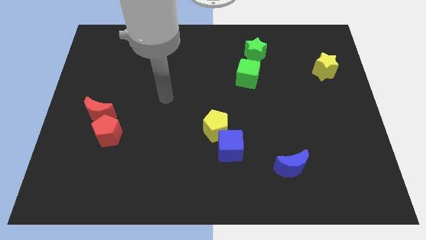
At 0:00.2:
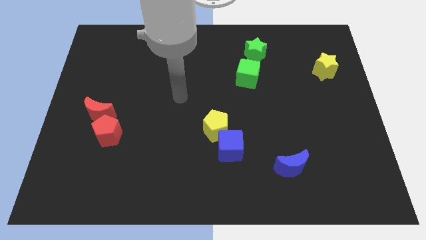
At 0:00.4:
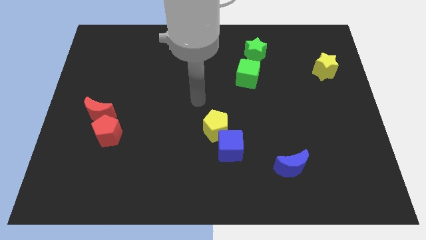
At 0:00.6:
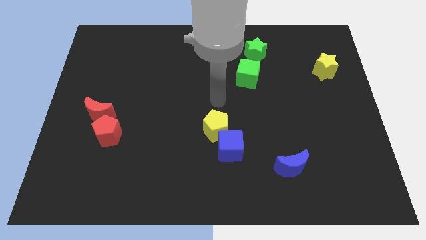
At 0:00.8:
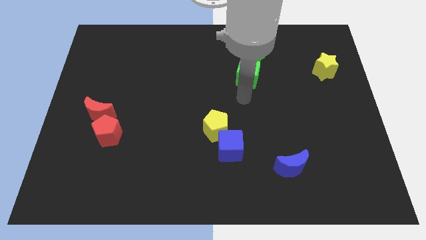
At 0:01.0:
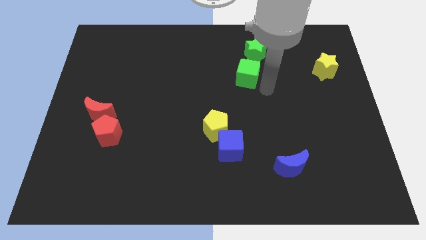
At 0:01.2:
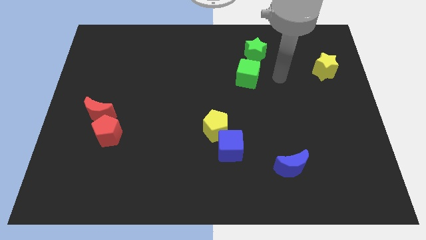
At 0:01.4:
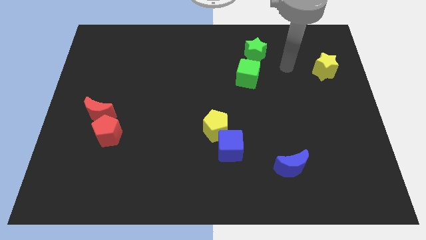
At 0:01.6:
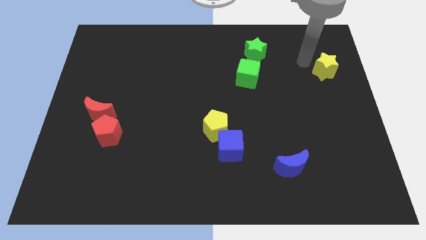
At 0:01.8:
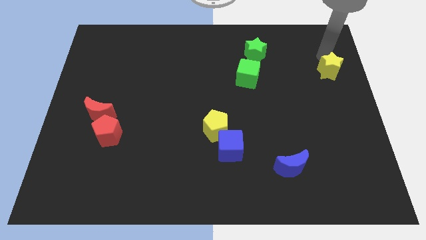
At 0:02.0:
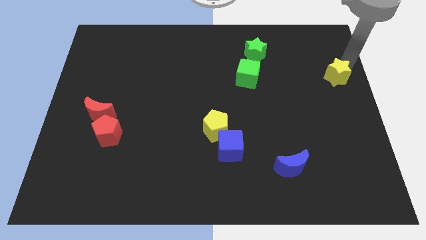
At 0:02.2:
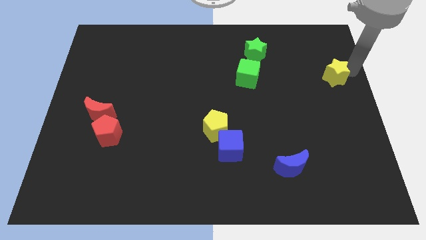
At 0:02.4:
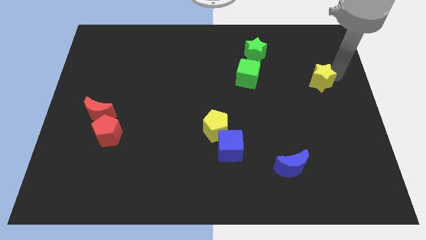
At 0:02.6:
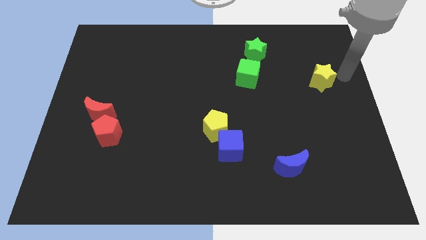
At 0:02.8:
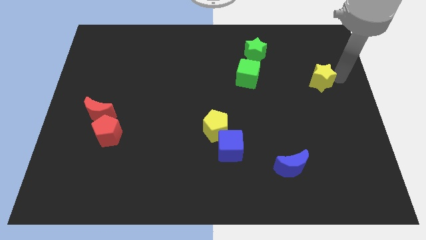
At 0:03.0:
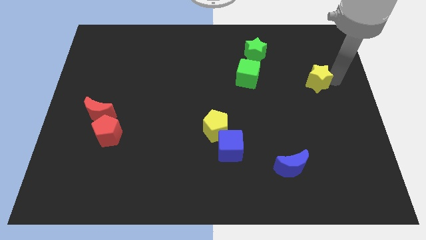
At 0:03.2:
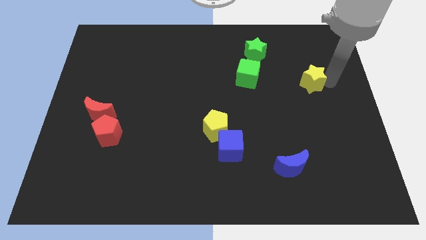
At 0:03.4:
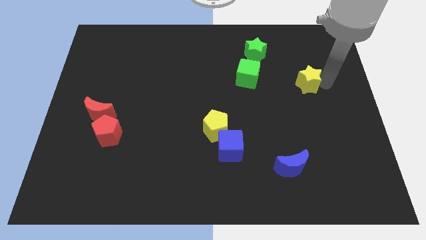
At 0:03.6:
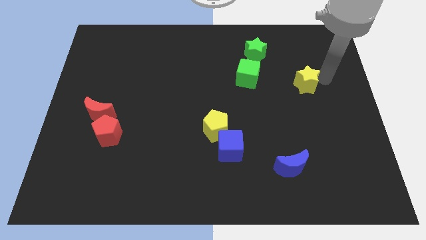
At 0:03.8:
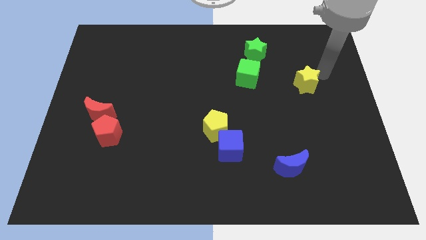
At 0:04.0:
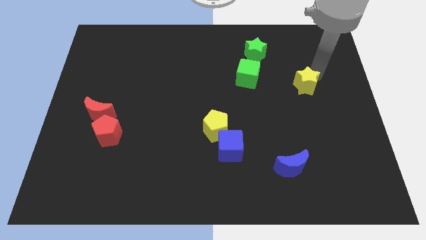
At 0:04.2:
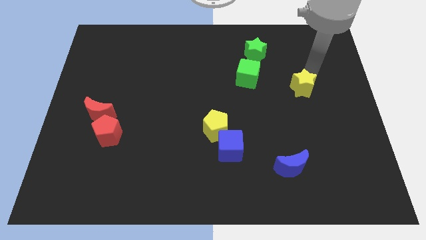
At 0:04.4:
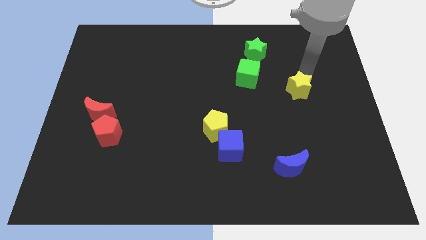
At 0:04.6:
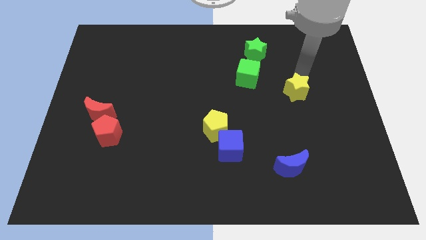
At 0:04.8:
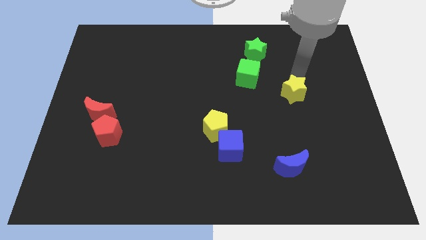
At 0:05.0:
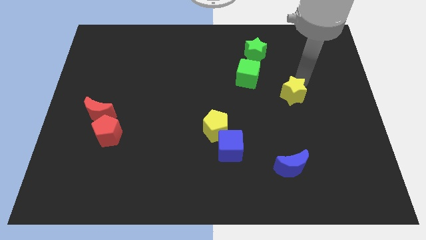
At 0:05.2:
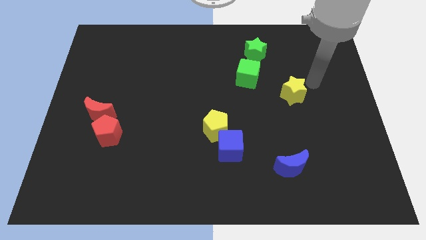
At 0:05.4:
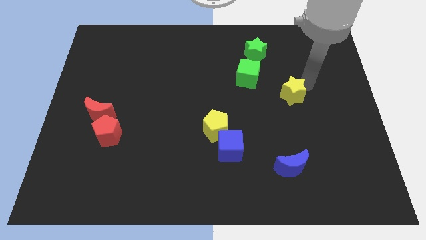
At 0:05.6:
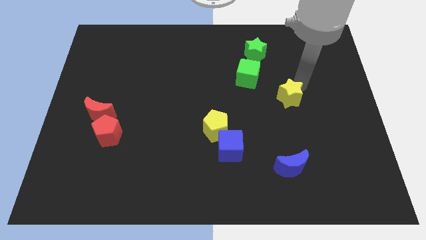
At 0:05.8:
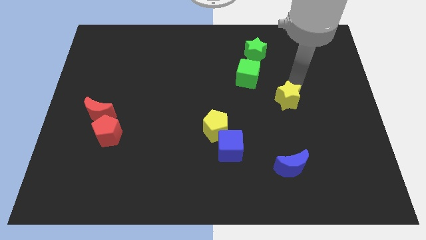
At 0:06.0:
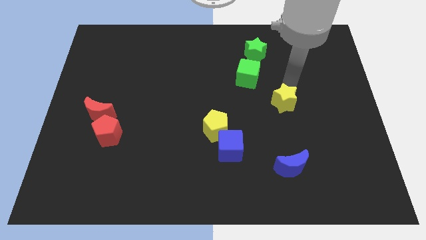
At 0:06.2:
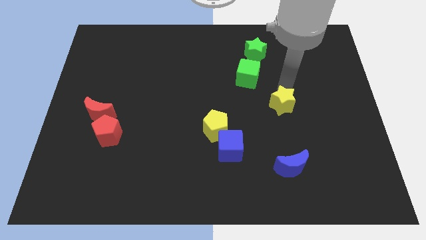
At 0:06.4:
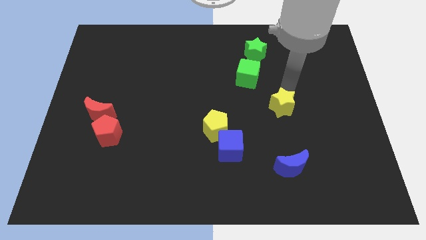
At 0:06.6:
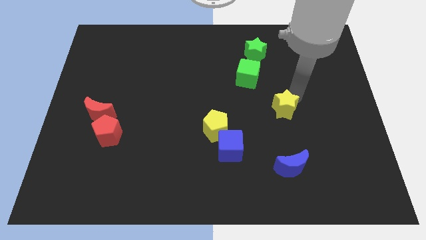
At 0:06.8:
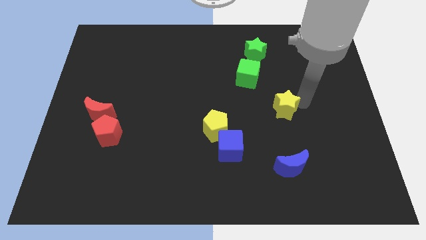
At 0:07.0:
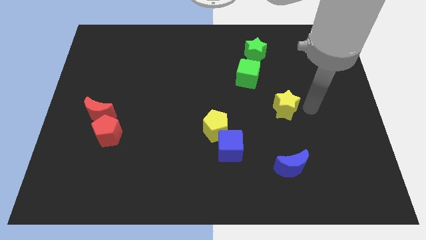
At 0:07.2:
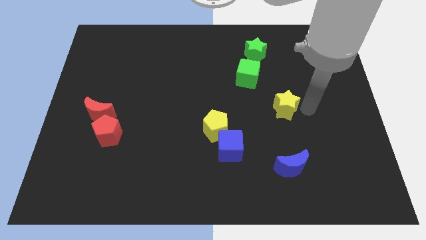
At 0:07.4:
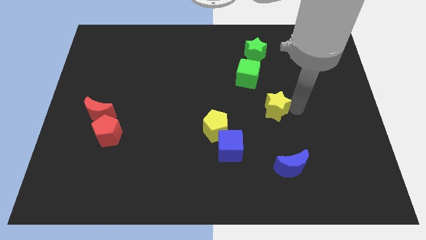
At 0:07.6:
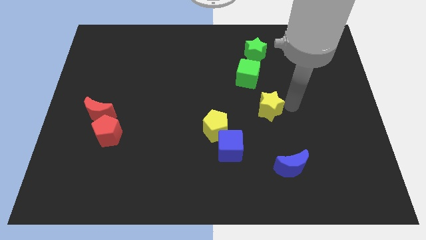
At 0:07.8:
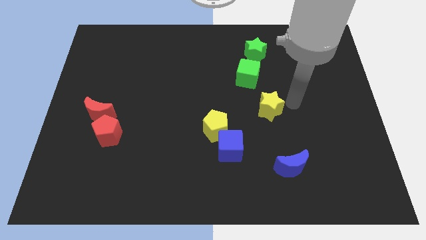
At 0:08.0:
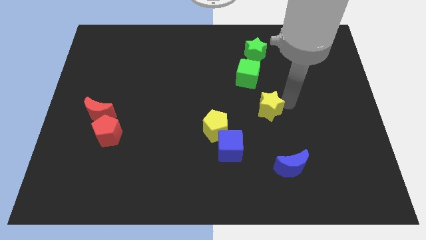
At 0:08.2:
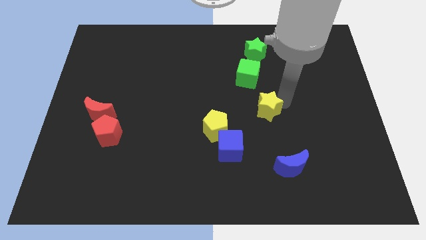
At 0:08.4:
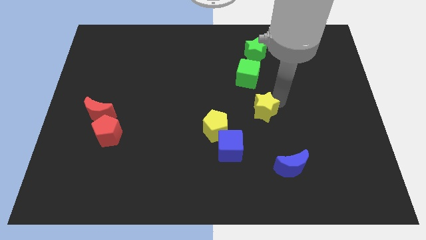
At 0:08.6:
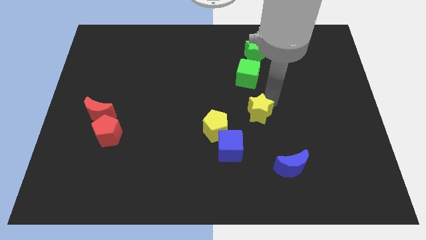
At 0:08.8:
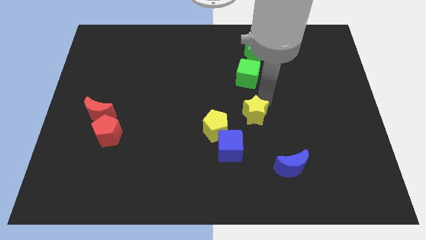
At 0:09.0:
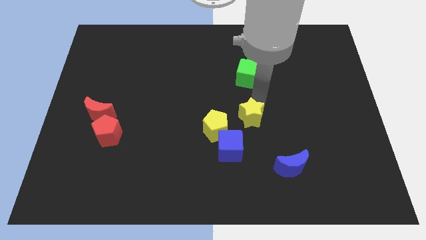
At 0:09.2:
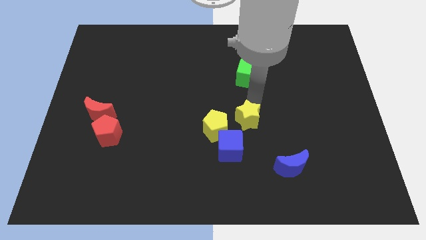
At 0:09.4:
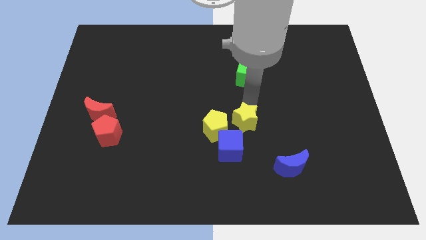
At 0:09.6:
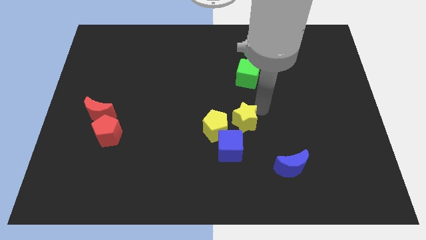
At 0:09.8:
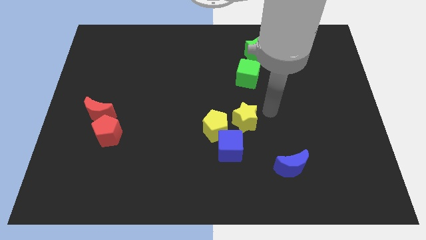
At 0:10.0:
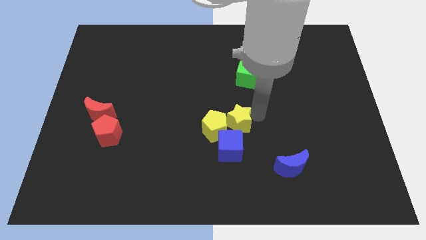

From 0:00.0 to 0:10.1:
put the yellow star next to the yellow pentagon

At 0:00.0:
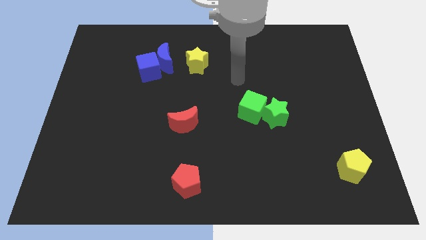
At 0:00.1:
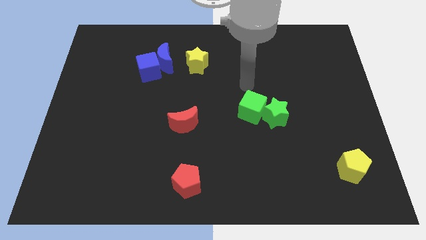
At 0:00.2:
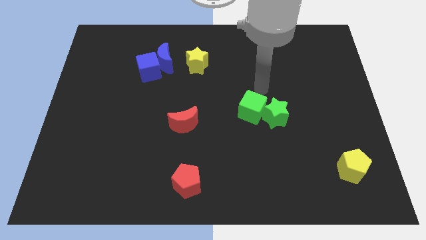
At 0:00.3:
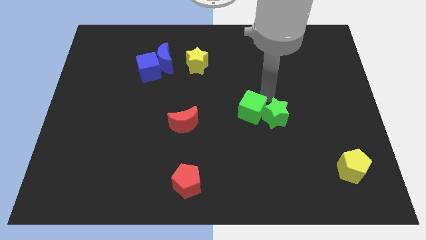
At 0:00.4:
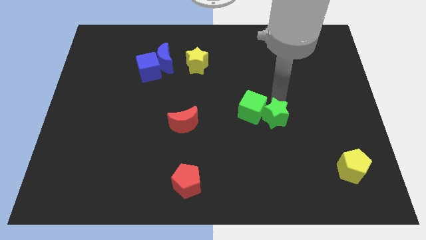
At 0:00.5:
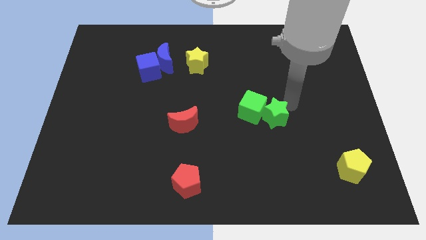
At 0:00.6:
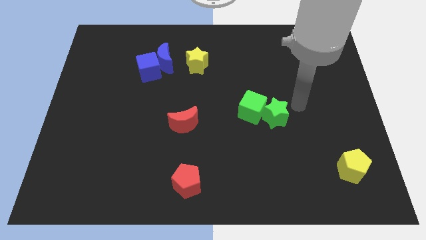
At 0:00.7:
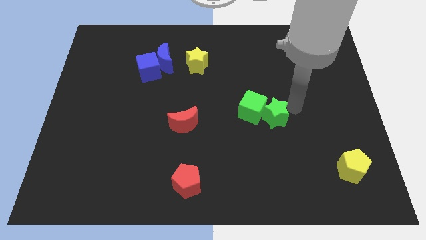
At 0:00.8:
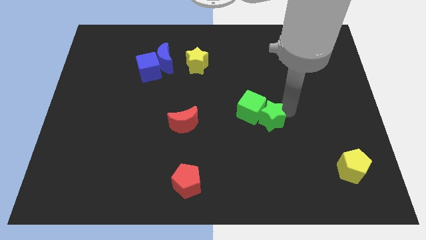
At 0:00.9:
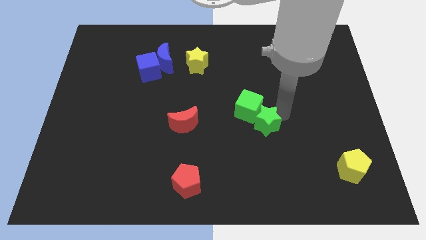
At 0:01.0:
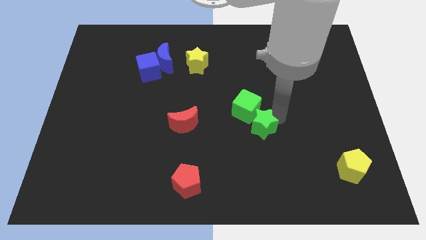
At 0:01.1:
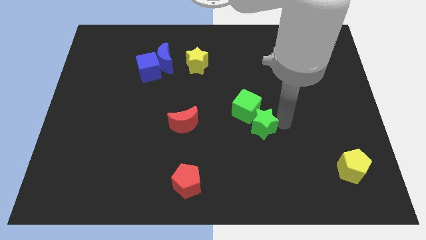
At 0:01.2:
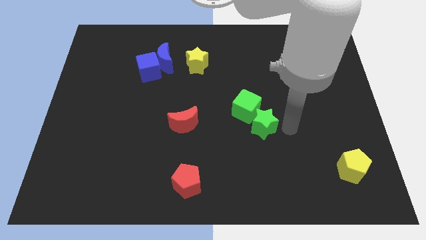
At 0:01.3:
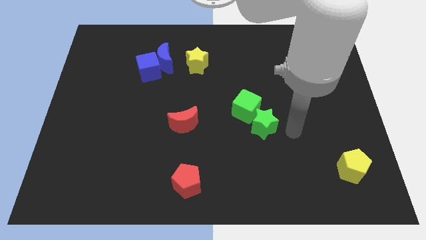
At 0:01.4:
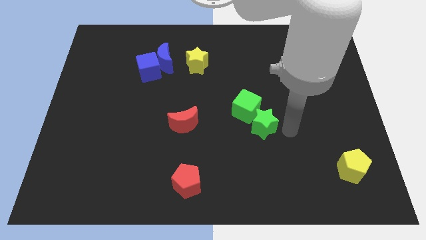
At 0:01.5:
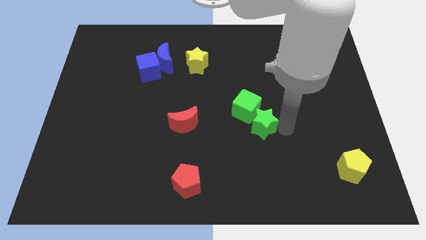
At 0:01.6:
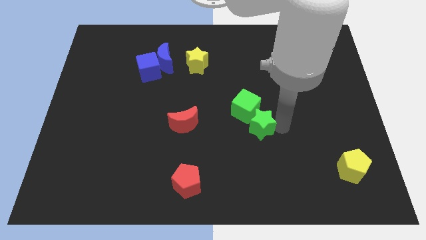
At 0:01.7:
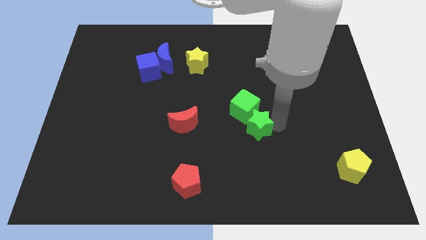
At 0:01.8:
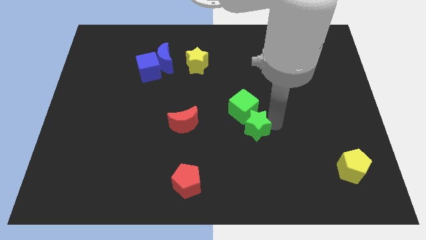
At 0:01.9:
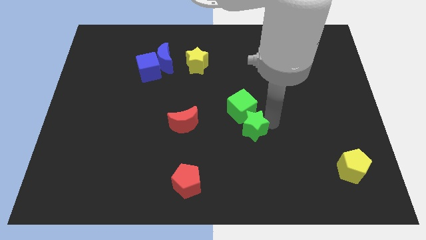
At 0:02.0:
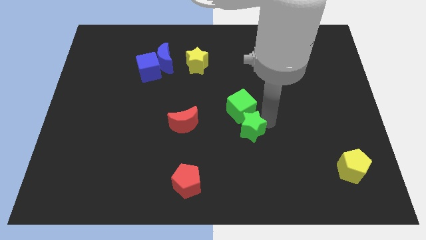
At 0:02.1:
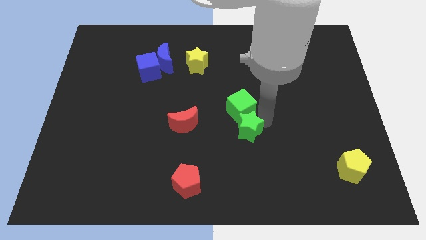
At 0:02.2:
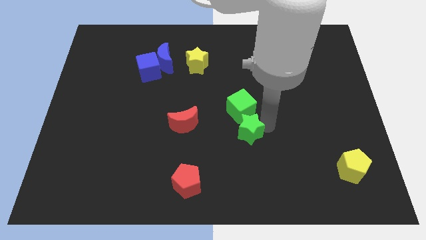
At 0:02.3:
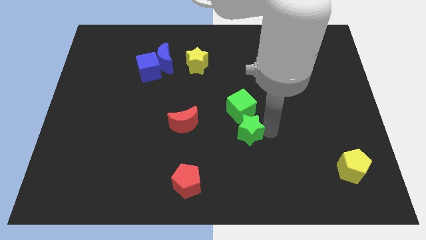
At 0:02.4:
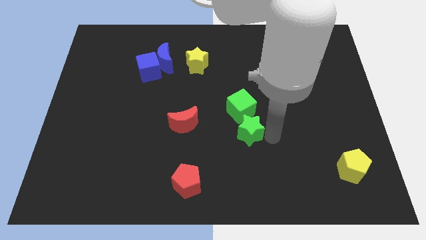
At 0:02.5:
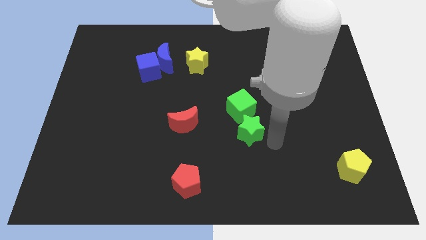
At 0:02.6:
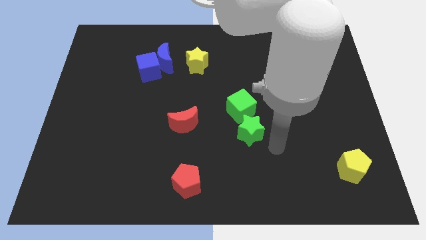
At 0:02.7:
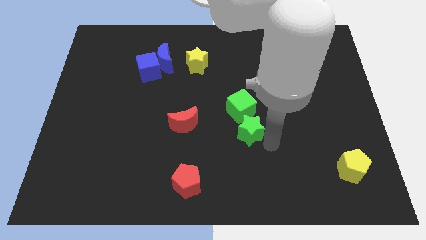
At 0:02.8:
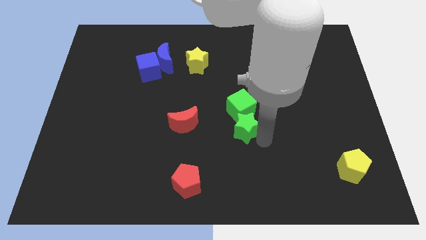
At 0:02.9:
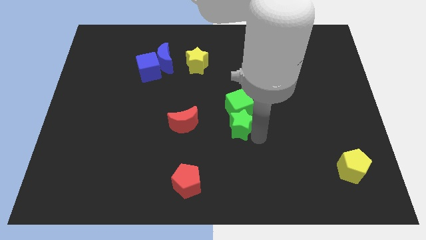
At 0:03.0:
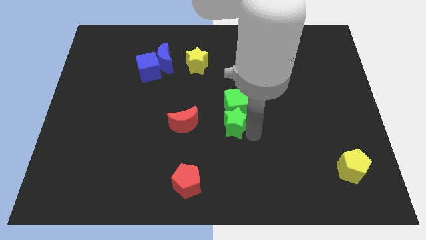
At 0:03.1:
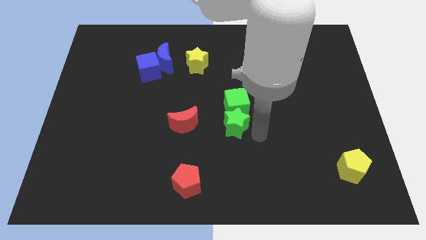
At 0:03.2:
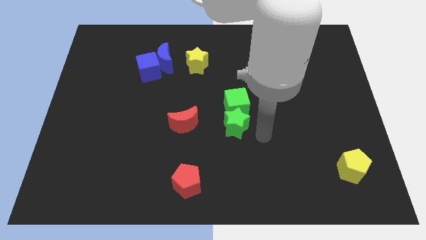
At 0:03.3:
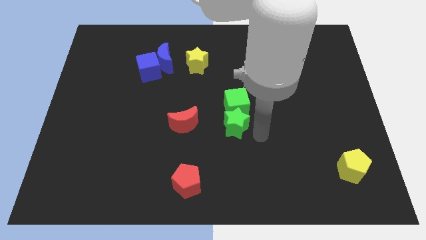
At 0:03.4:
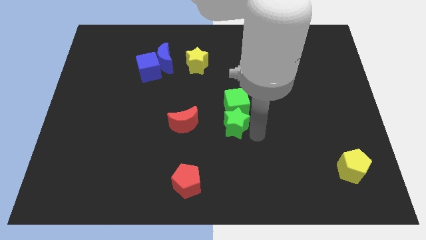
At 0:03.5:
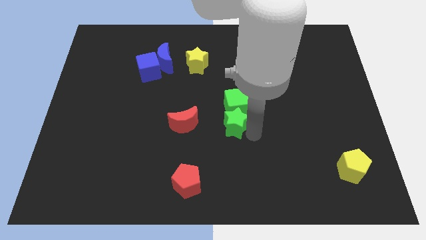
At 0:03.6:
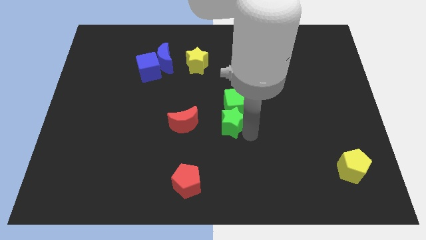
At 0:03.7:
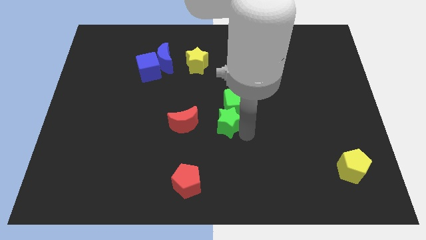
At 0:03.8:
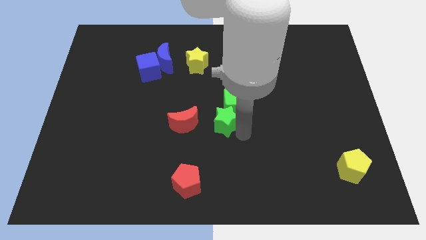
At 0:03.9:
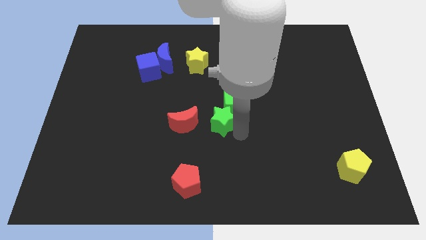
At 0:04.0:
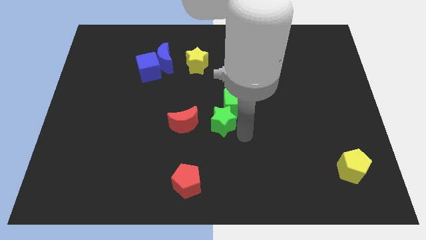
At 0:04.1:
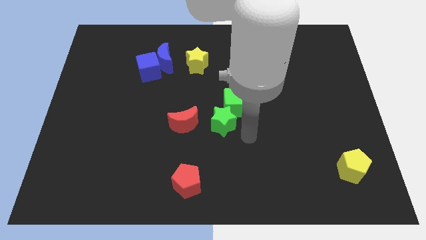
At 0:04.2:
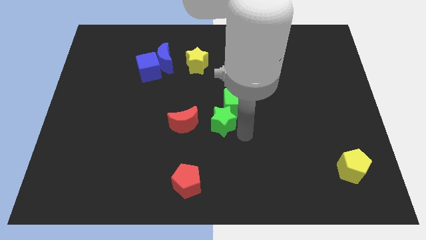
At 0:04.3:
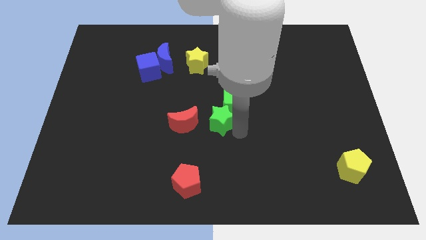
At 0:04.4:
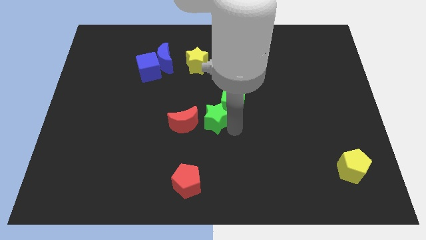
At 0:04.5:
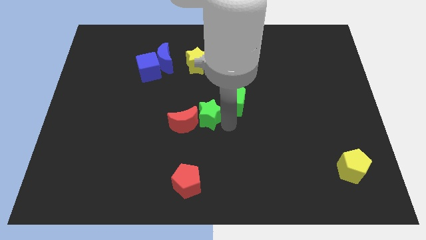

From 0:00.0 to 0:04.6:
put the green star towards the red moon
